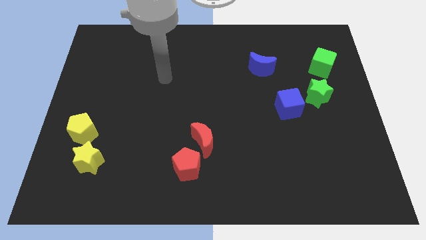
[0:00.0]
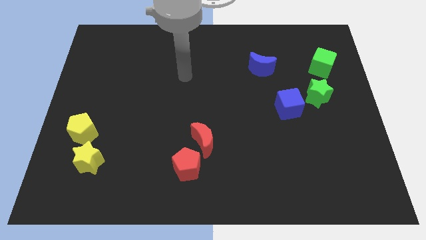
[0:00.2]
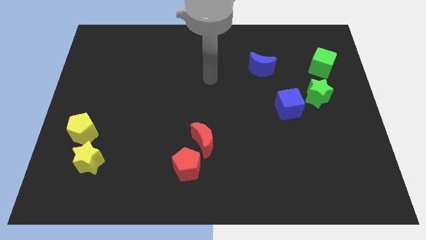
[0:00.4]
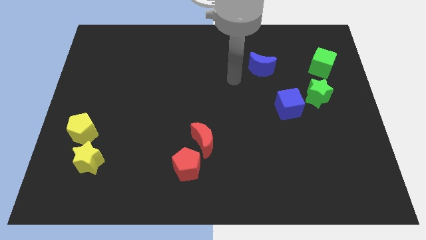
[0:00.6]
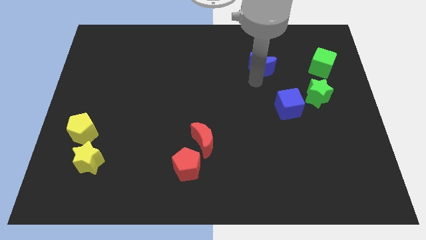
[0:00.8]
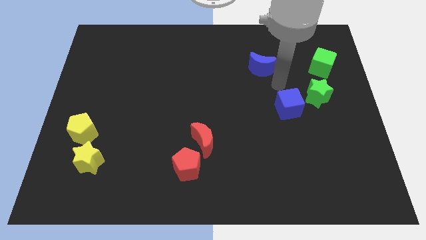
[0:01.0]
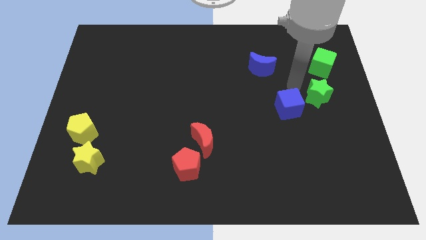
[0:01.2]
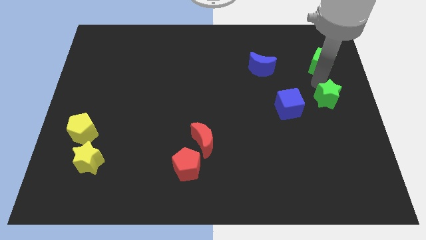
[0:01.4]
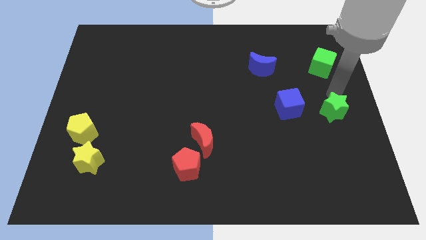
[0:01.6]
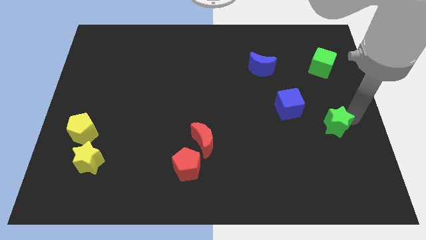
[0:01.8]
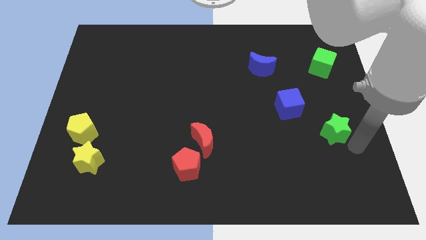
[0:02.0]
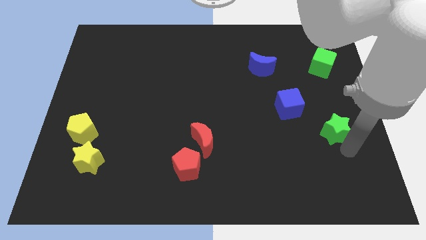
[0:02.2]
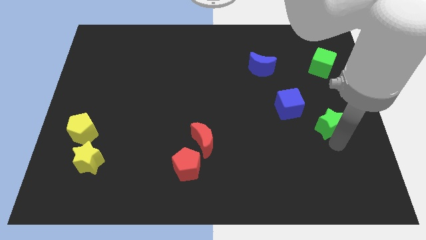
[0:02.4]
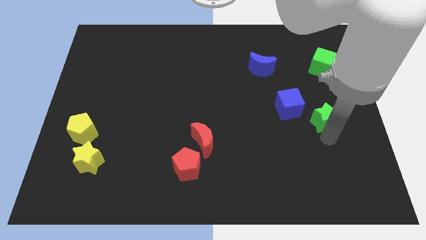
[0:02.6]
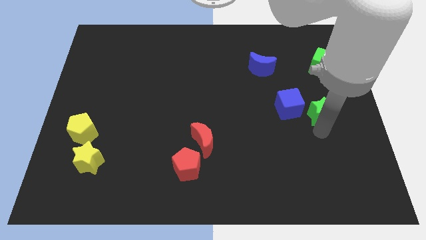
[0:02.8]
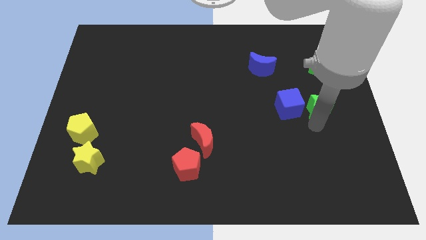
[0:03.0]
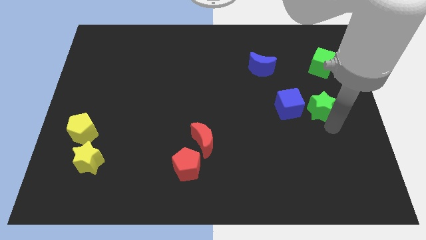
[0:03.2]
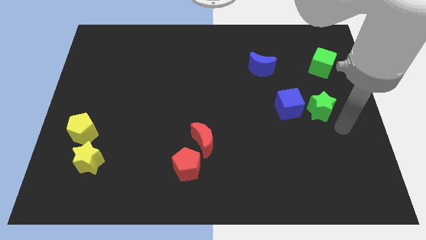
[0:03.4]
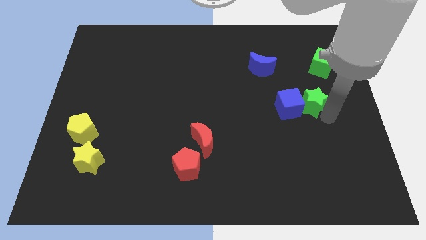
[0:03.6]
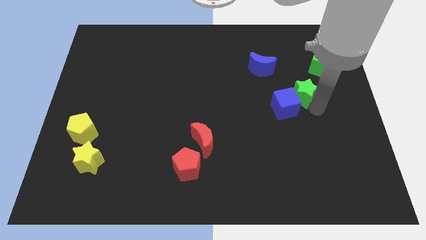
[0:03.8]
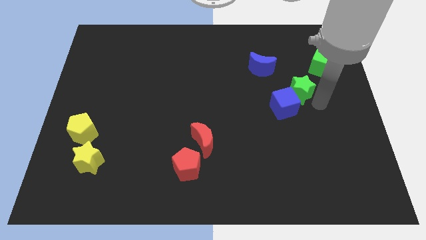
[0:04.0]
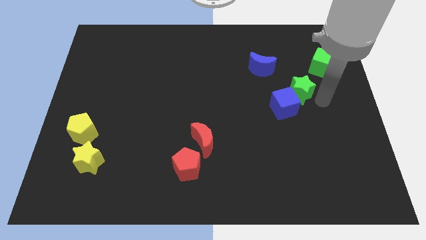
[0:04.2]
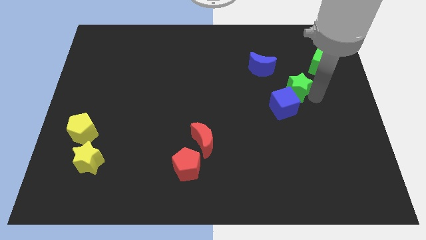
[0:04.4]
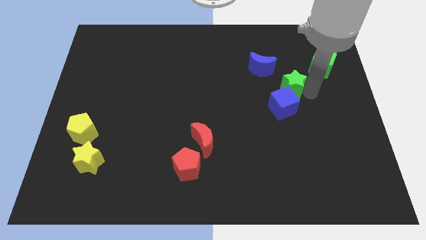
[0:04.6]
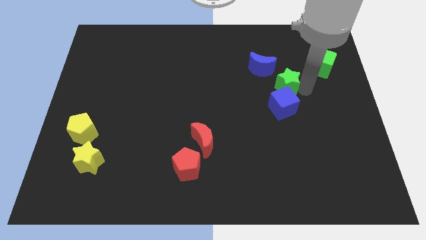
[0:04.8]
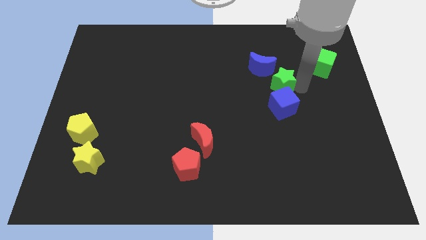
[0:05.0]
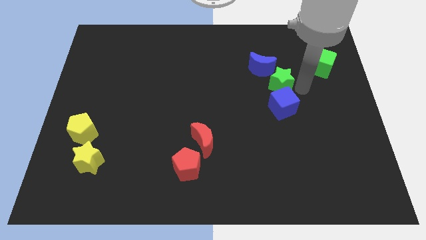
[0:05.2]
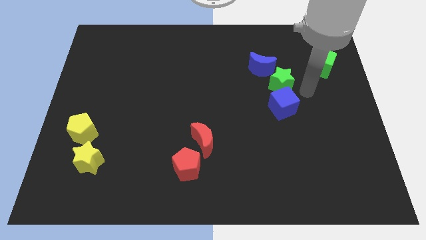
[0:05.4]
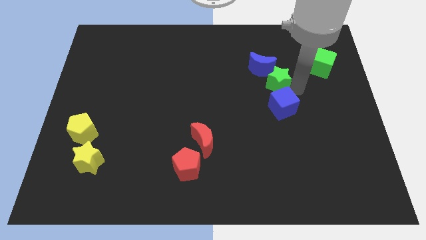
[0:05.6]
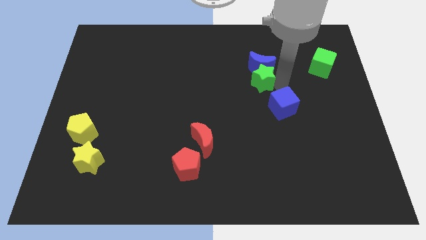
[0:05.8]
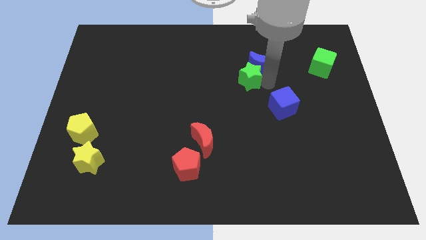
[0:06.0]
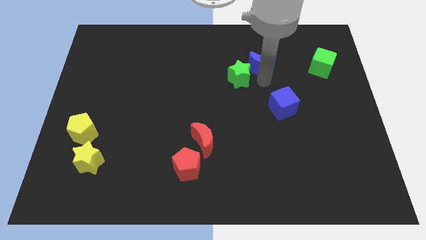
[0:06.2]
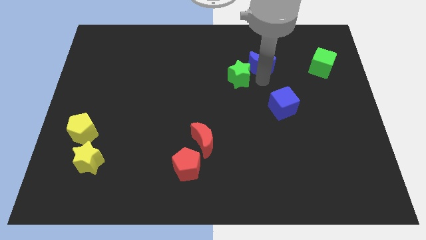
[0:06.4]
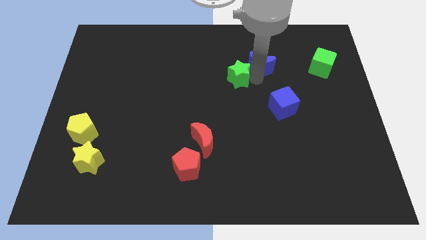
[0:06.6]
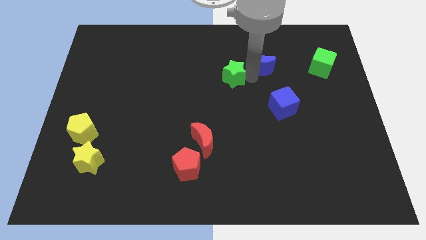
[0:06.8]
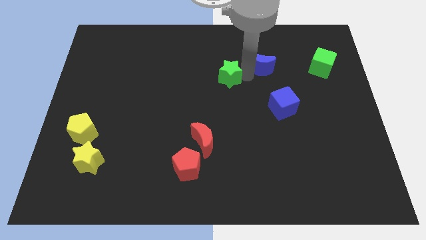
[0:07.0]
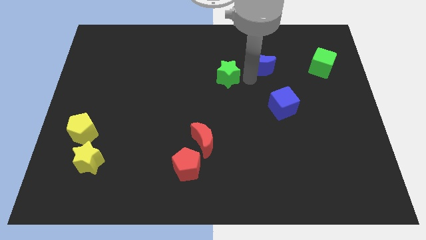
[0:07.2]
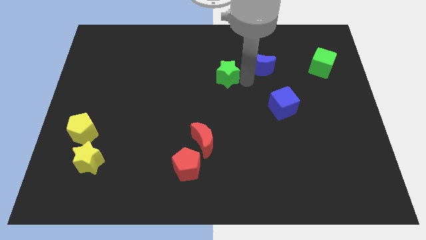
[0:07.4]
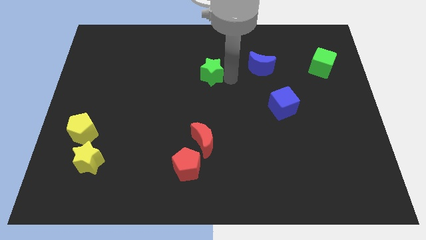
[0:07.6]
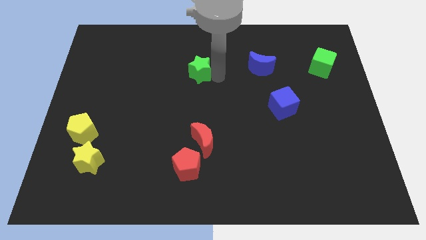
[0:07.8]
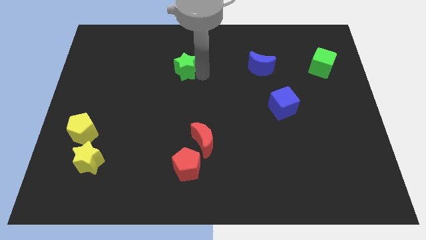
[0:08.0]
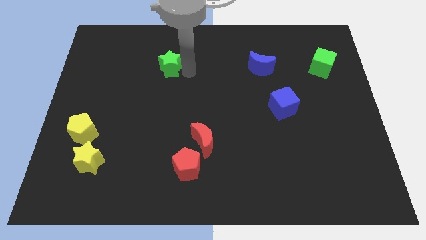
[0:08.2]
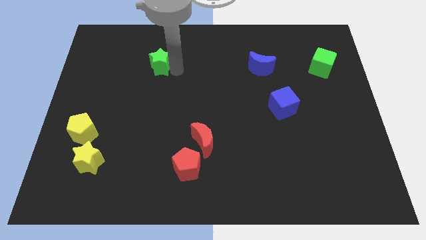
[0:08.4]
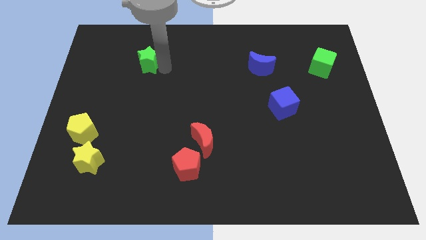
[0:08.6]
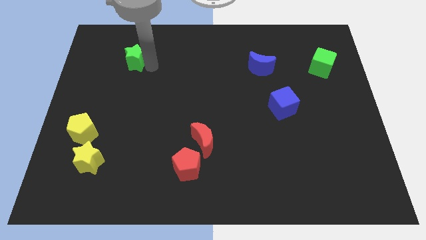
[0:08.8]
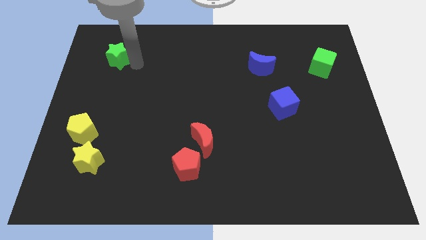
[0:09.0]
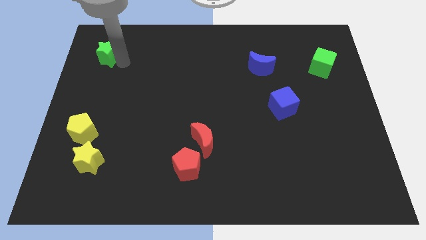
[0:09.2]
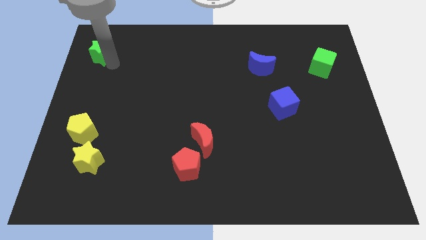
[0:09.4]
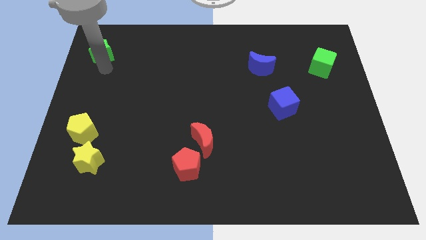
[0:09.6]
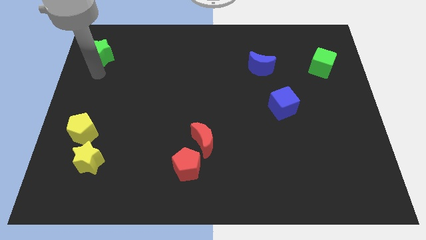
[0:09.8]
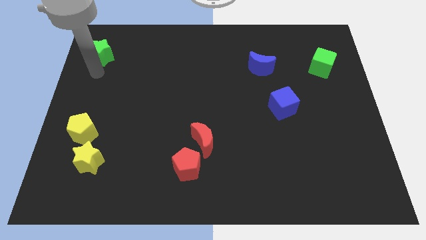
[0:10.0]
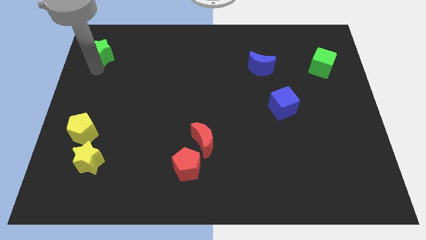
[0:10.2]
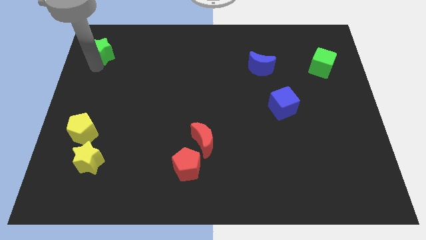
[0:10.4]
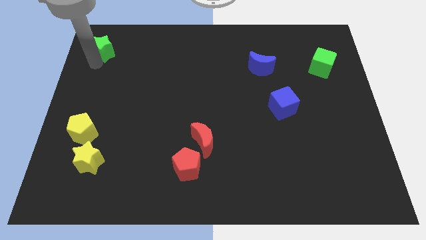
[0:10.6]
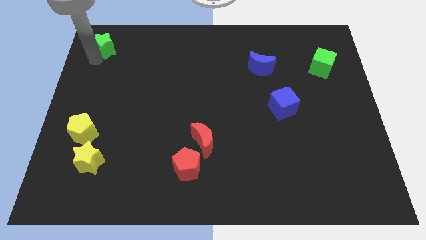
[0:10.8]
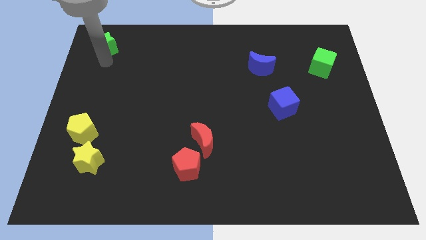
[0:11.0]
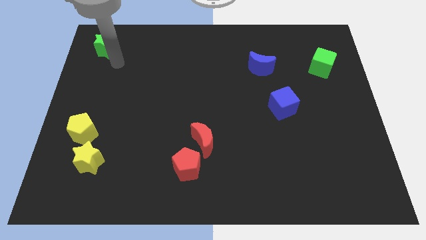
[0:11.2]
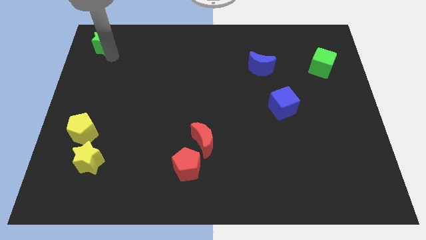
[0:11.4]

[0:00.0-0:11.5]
put the green star to the top left corner

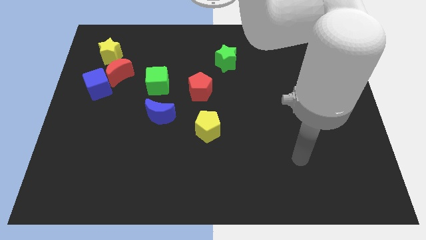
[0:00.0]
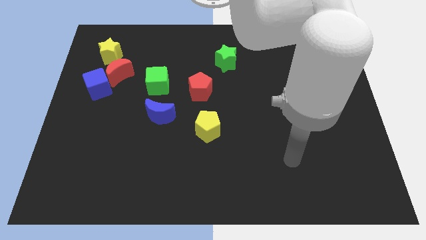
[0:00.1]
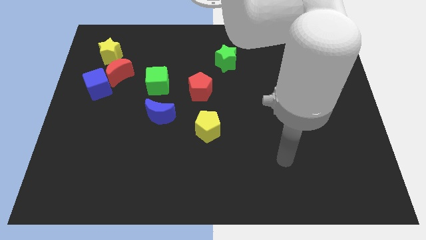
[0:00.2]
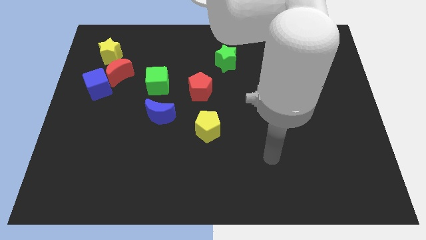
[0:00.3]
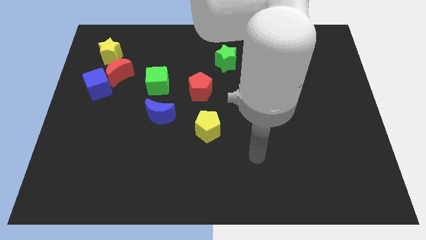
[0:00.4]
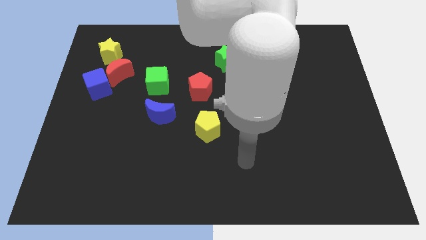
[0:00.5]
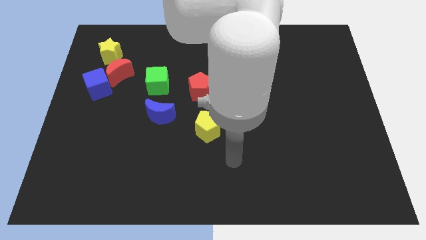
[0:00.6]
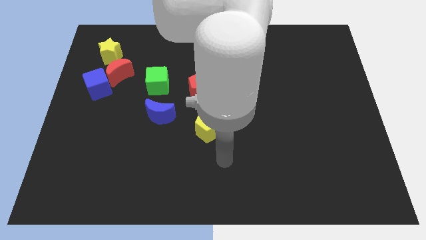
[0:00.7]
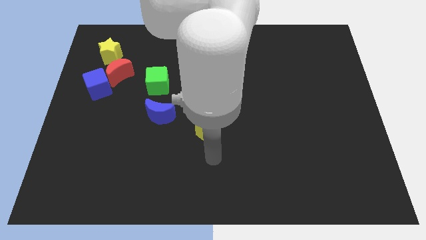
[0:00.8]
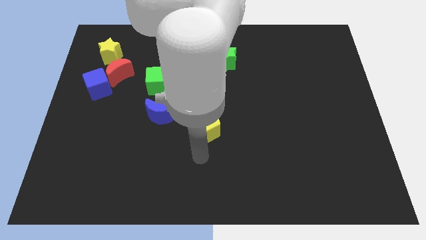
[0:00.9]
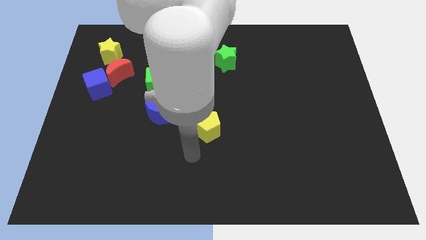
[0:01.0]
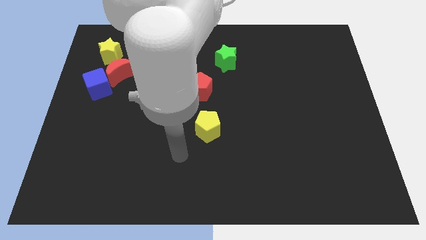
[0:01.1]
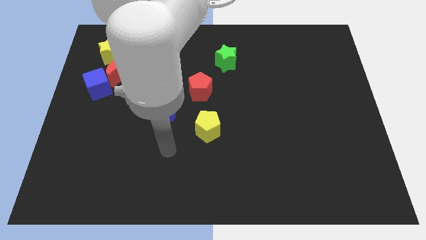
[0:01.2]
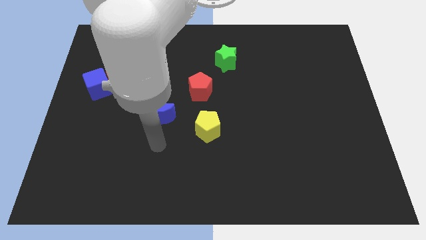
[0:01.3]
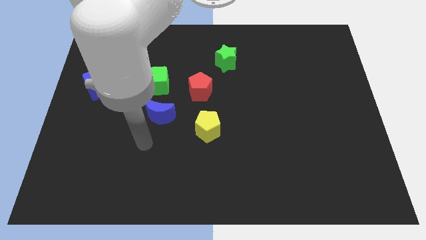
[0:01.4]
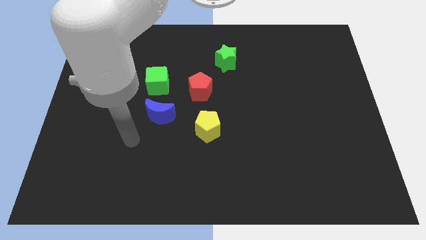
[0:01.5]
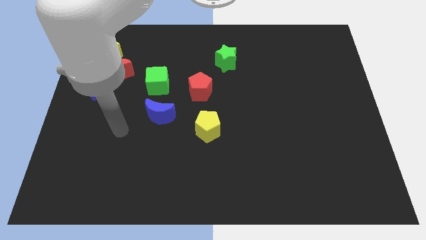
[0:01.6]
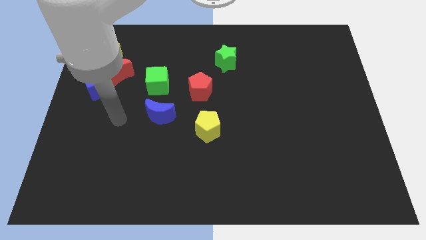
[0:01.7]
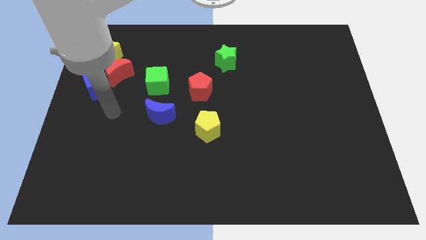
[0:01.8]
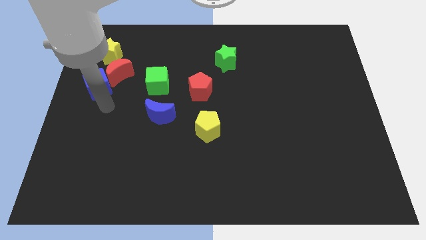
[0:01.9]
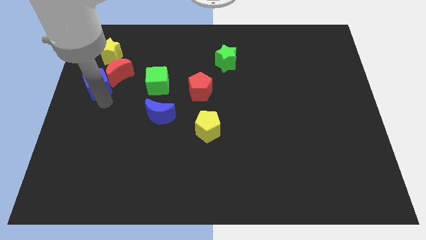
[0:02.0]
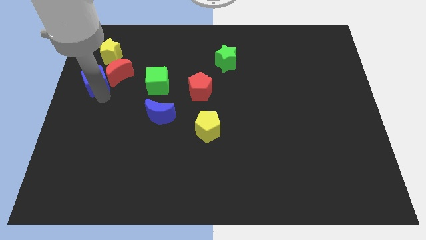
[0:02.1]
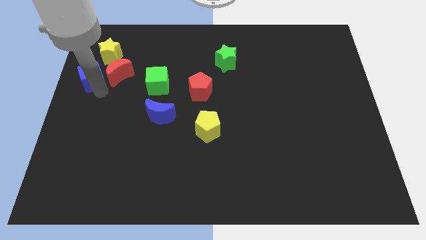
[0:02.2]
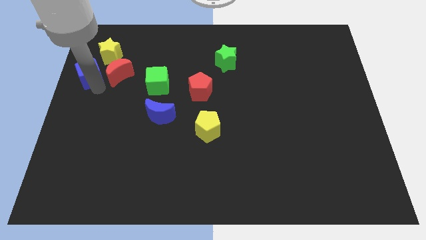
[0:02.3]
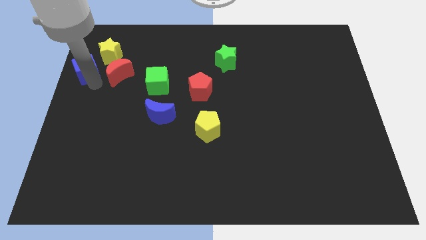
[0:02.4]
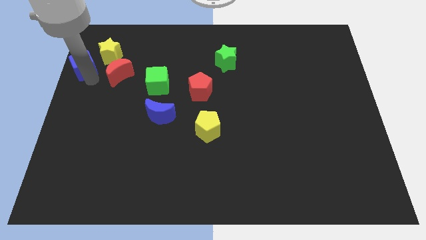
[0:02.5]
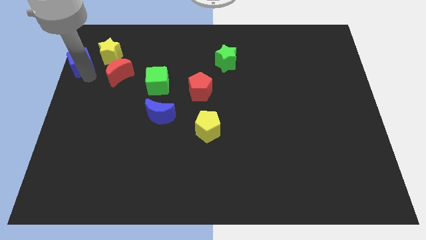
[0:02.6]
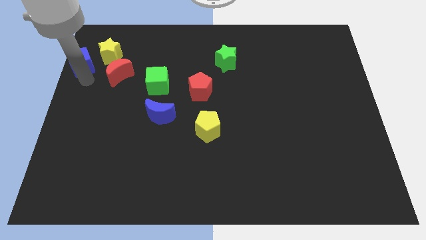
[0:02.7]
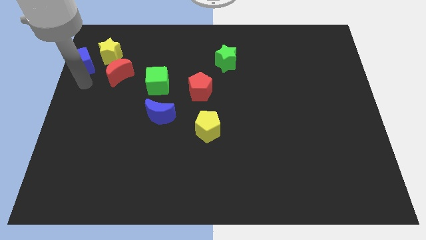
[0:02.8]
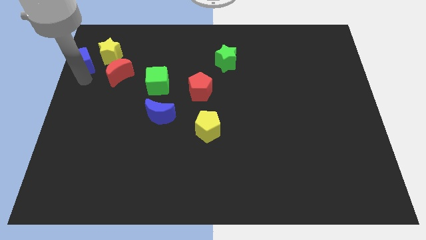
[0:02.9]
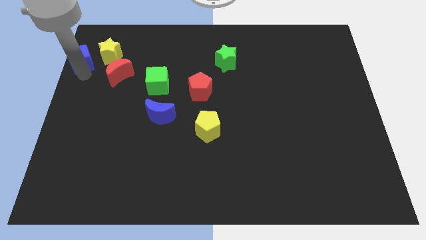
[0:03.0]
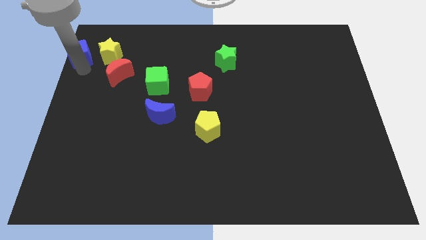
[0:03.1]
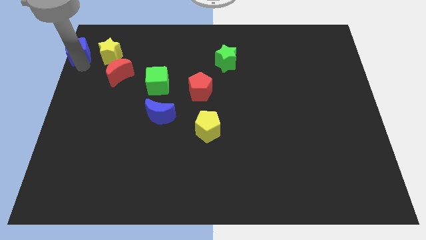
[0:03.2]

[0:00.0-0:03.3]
push the blue cube to the top left corner
